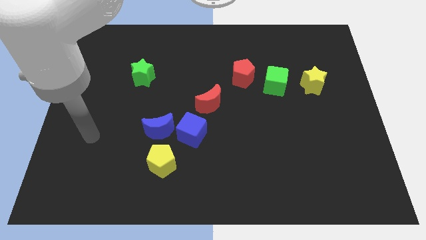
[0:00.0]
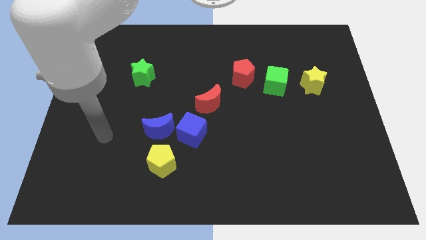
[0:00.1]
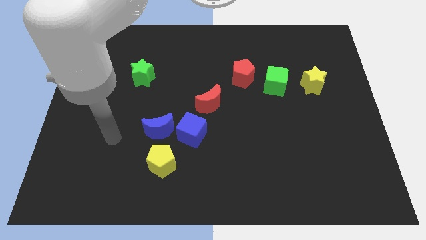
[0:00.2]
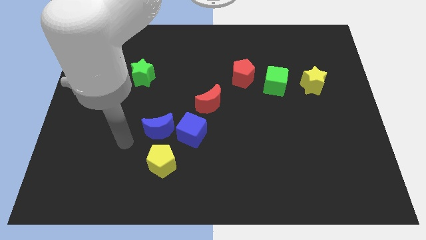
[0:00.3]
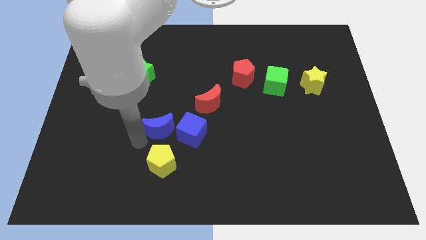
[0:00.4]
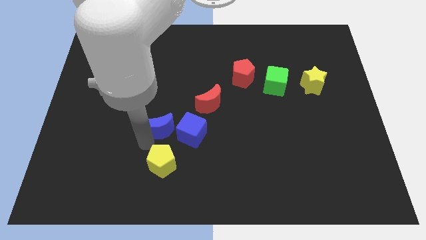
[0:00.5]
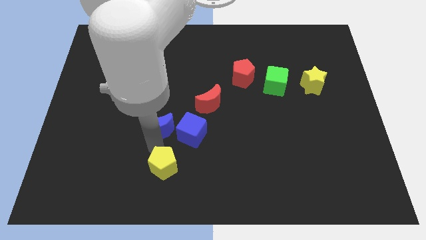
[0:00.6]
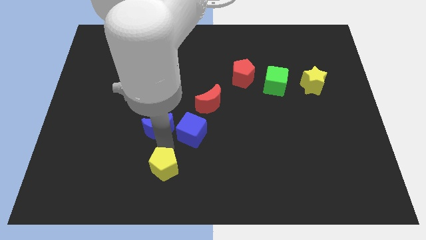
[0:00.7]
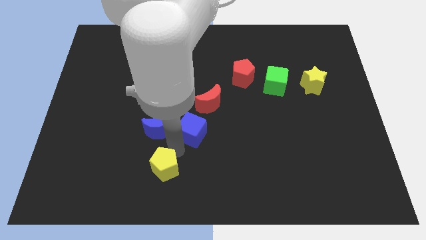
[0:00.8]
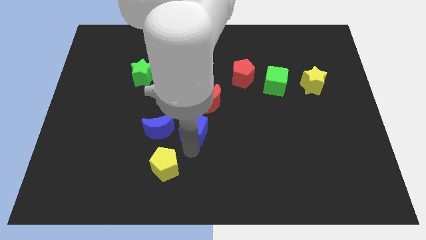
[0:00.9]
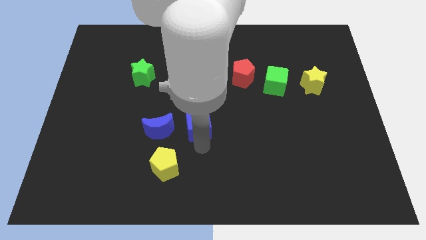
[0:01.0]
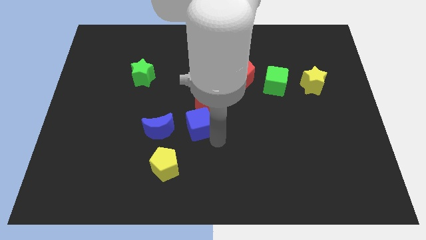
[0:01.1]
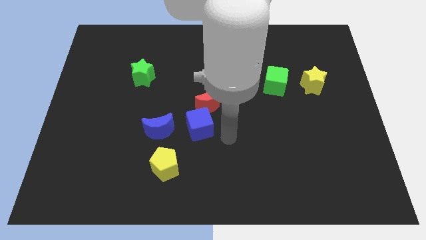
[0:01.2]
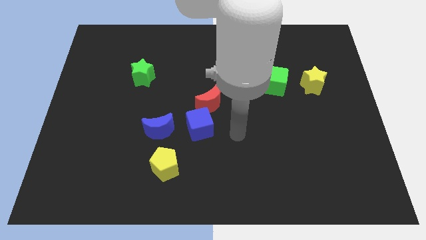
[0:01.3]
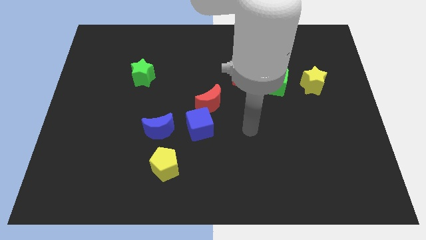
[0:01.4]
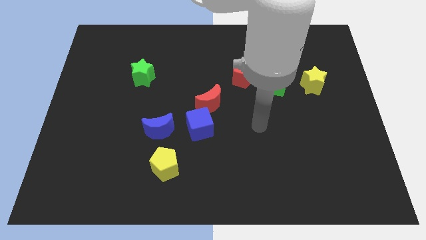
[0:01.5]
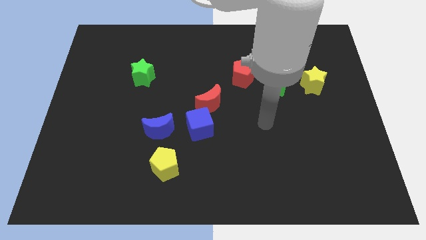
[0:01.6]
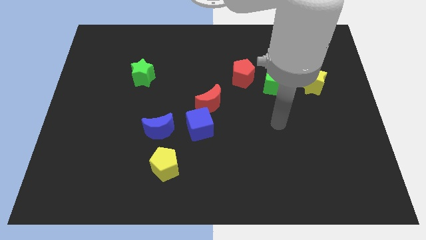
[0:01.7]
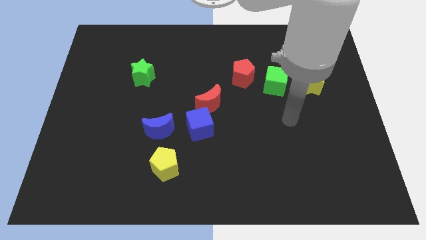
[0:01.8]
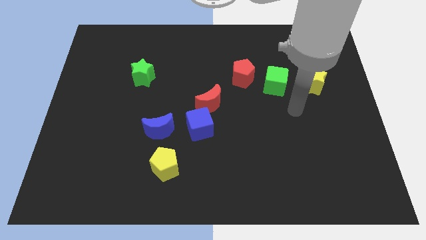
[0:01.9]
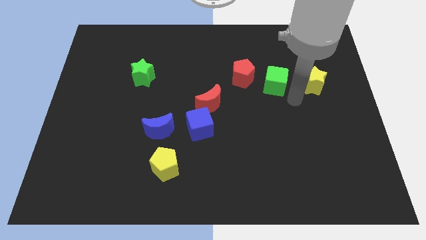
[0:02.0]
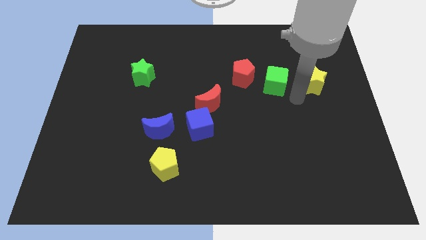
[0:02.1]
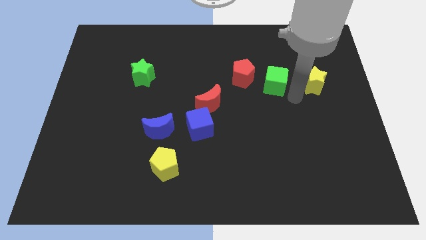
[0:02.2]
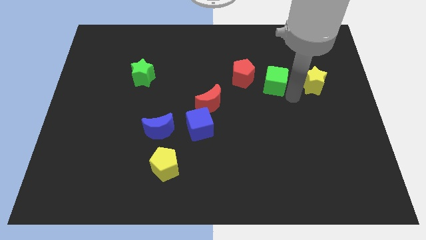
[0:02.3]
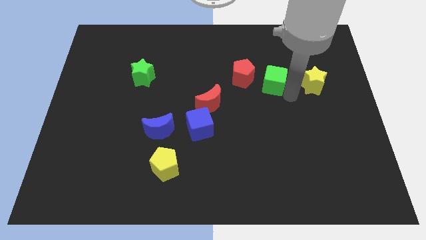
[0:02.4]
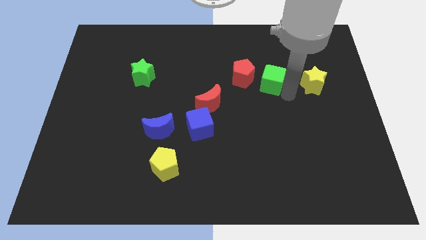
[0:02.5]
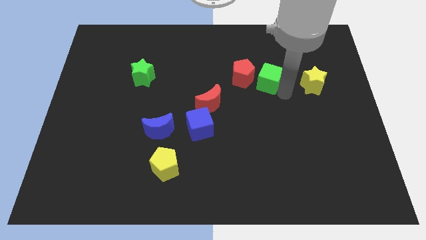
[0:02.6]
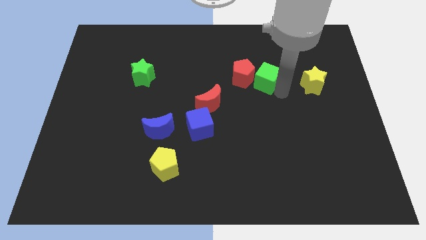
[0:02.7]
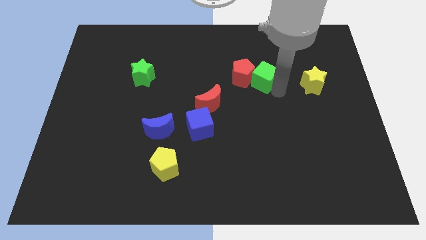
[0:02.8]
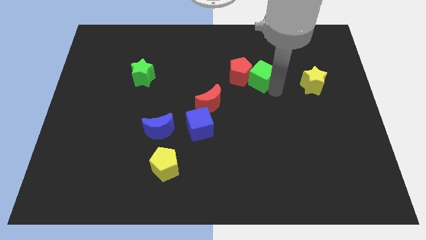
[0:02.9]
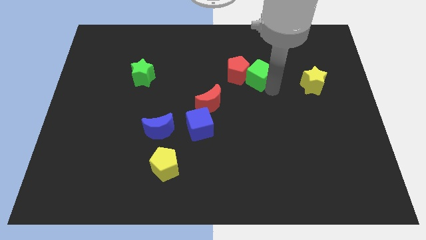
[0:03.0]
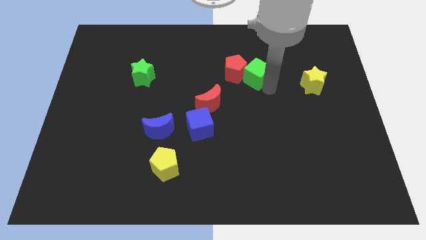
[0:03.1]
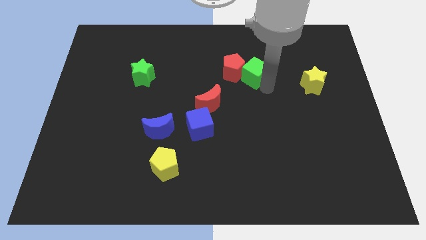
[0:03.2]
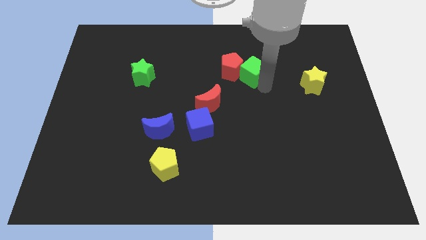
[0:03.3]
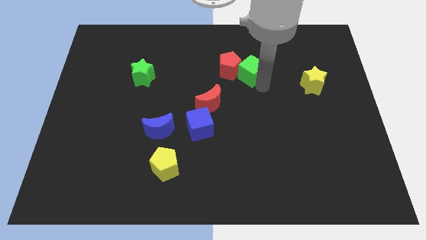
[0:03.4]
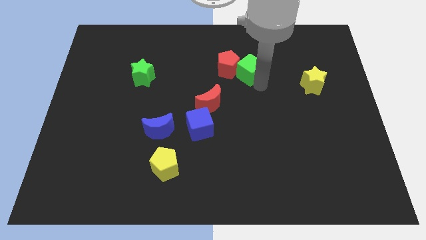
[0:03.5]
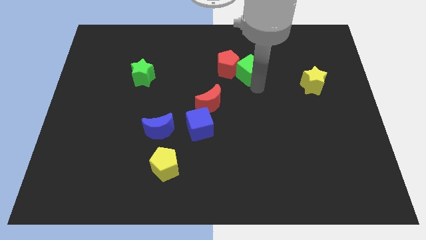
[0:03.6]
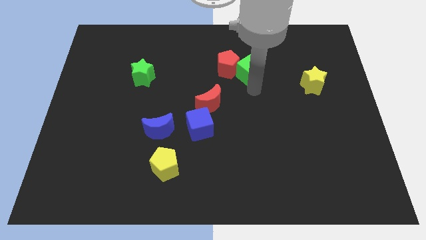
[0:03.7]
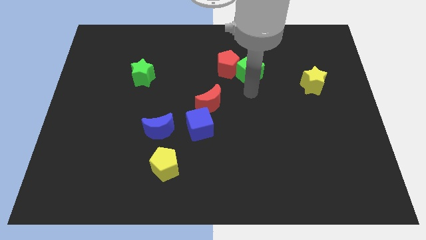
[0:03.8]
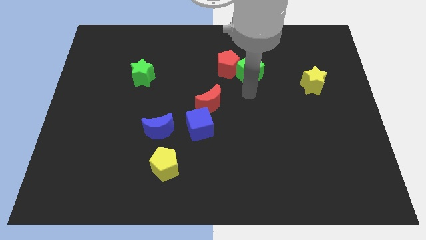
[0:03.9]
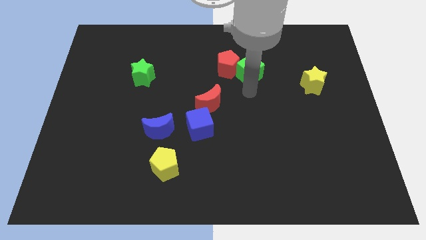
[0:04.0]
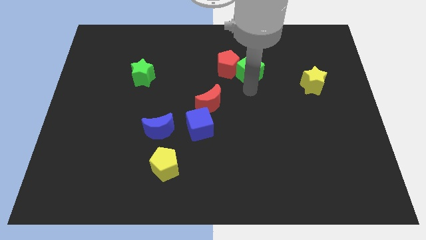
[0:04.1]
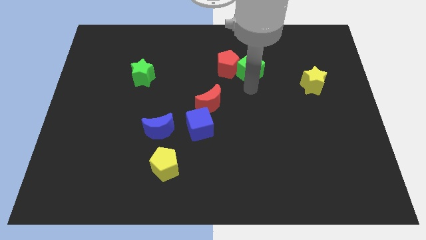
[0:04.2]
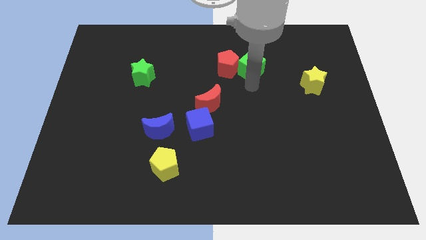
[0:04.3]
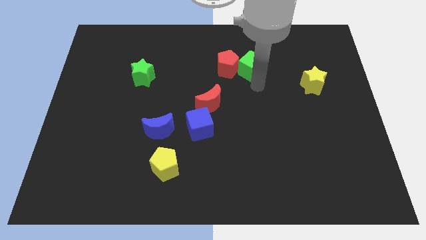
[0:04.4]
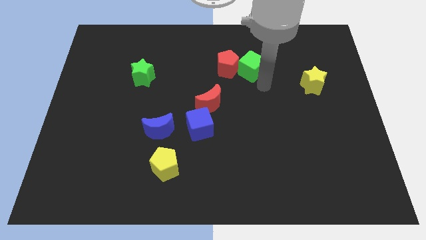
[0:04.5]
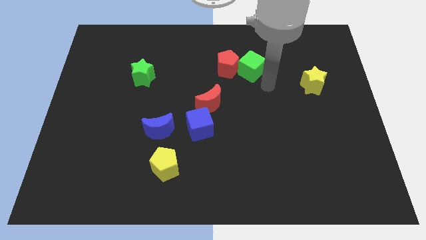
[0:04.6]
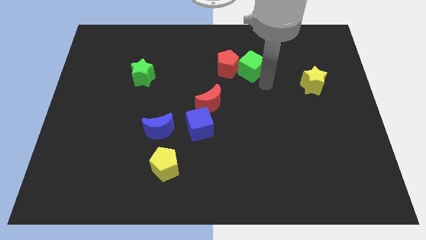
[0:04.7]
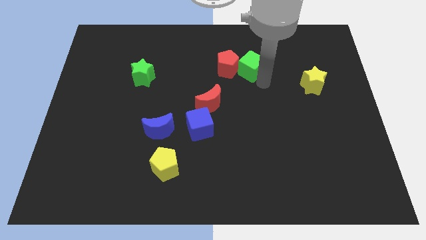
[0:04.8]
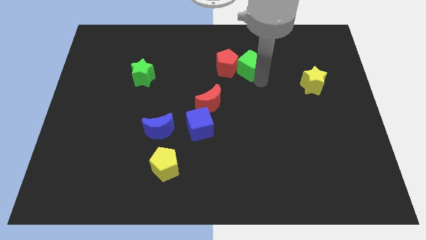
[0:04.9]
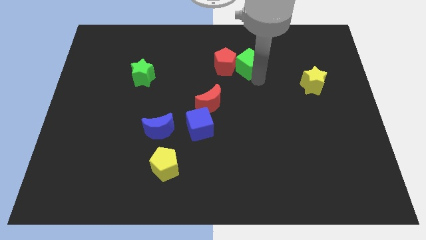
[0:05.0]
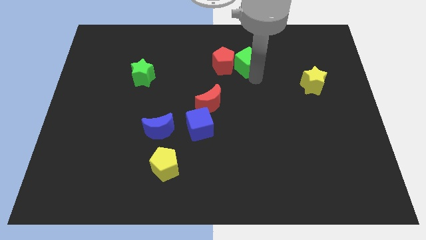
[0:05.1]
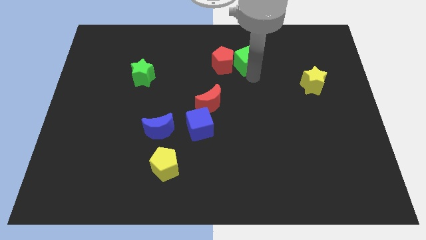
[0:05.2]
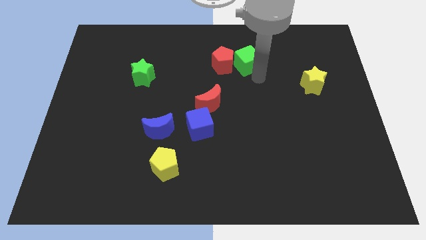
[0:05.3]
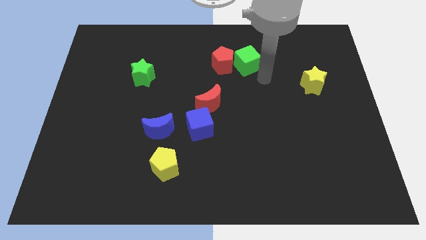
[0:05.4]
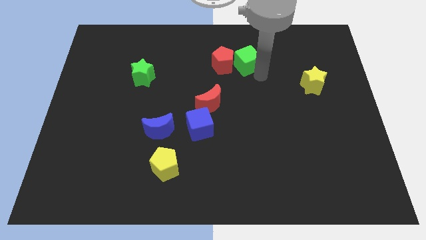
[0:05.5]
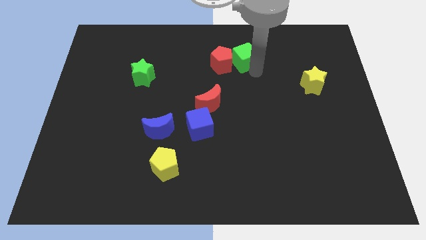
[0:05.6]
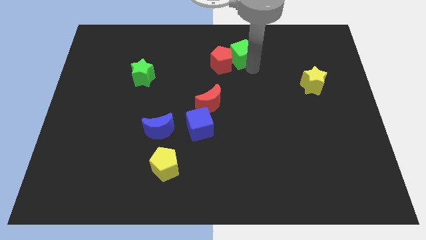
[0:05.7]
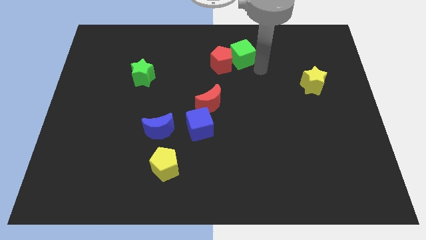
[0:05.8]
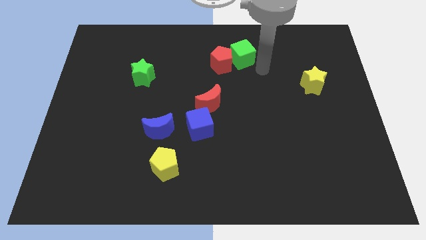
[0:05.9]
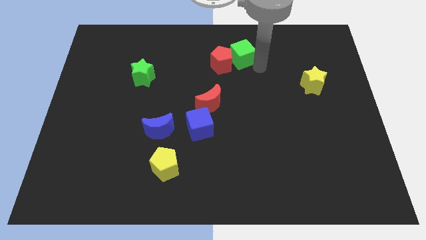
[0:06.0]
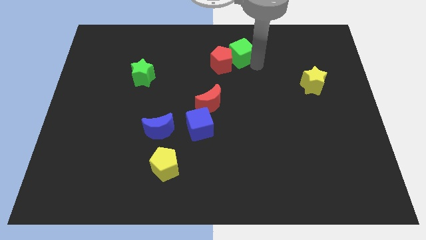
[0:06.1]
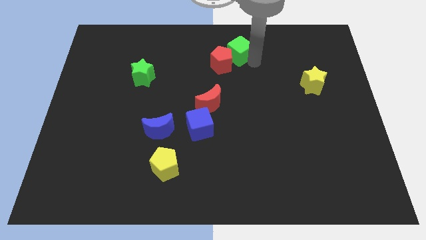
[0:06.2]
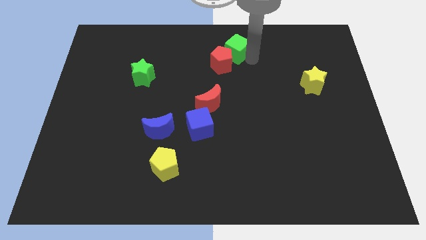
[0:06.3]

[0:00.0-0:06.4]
slide the green cube to the top side
